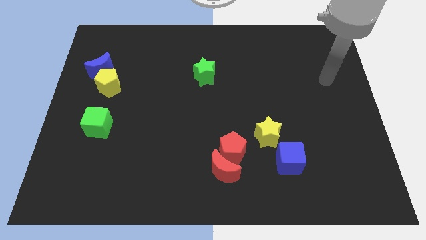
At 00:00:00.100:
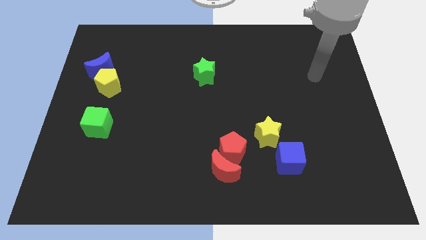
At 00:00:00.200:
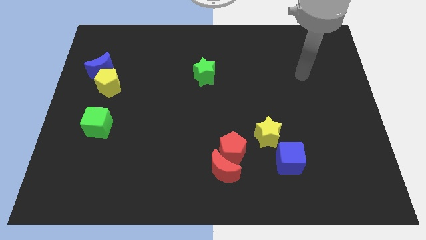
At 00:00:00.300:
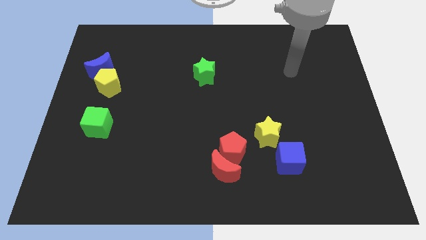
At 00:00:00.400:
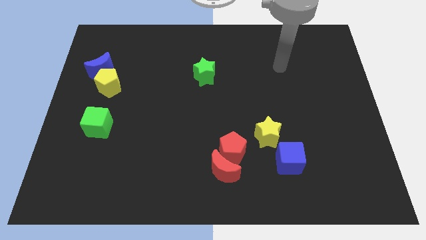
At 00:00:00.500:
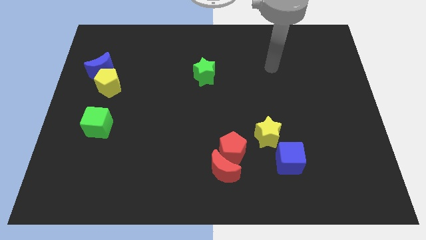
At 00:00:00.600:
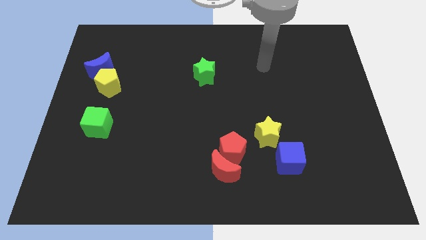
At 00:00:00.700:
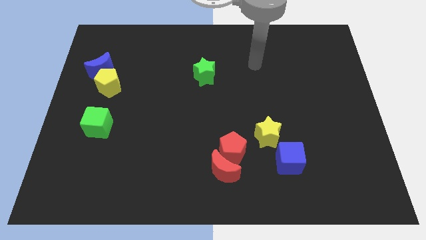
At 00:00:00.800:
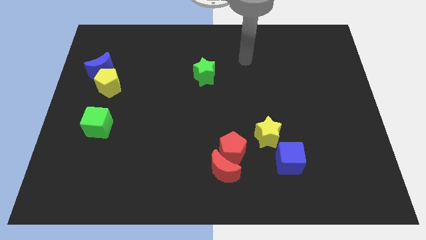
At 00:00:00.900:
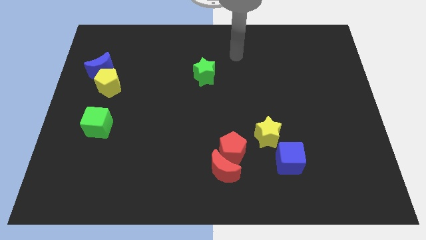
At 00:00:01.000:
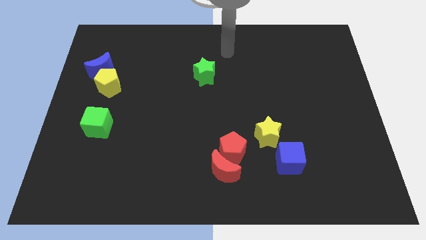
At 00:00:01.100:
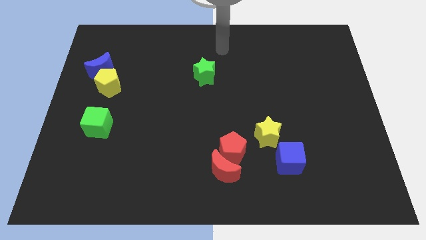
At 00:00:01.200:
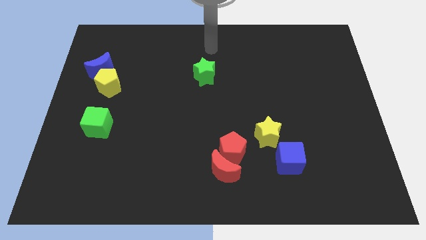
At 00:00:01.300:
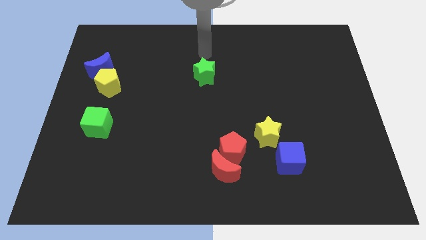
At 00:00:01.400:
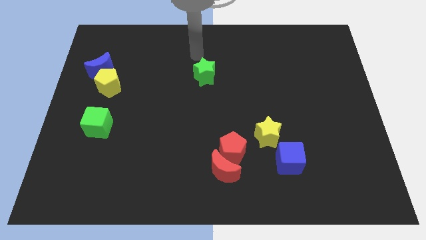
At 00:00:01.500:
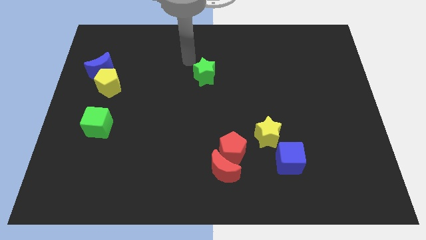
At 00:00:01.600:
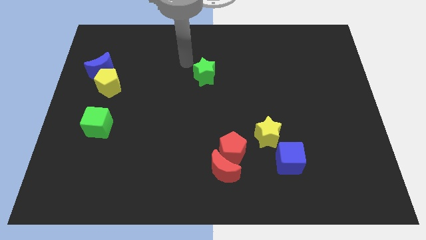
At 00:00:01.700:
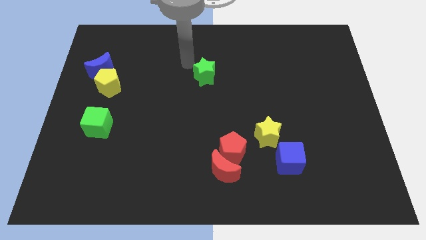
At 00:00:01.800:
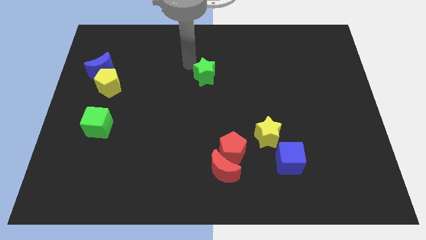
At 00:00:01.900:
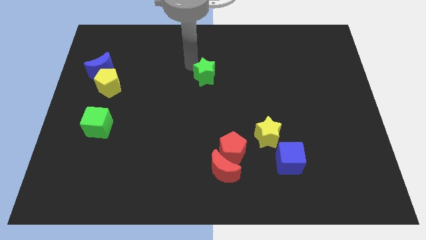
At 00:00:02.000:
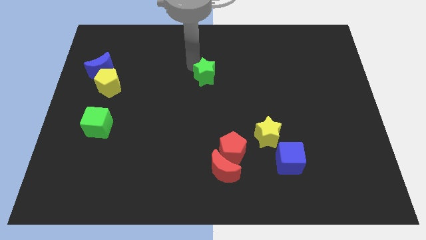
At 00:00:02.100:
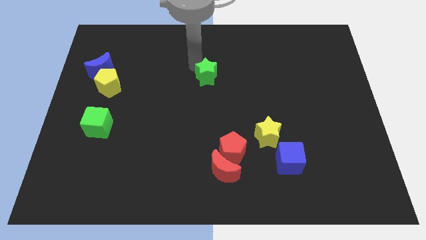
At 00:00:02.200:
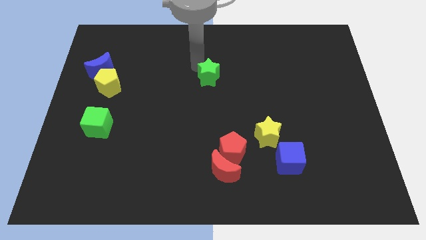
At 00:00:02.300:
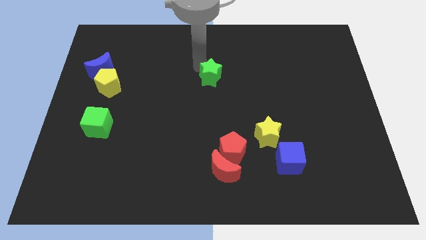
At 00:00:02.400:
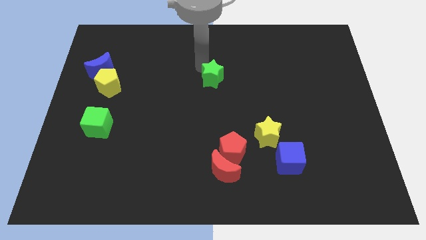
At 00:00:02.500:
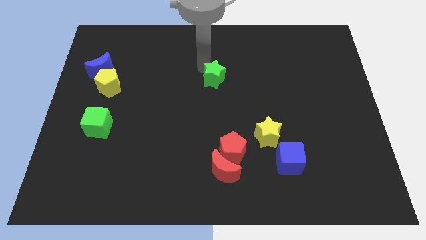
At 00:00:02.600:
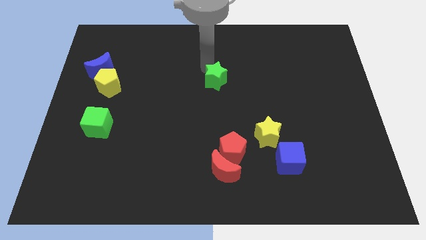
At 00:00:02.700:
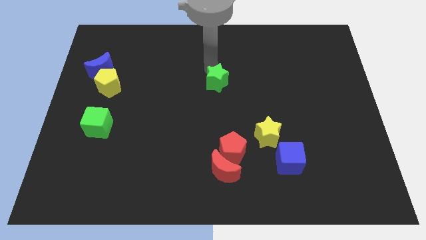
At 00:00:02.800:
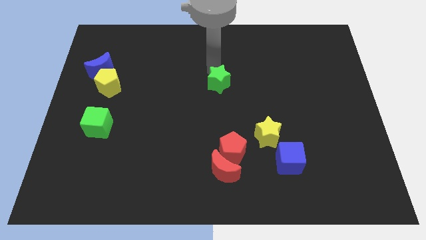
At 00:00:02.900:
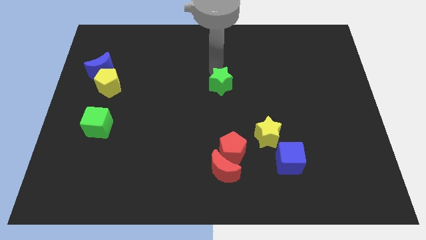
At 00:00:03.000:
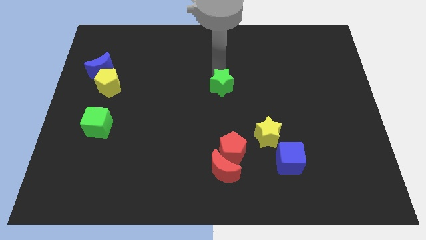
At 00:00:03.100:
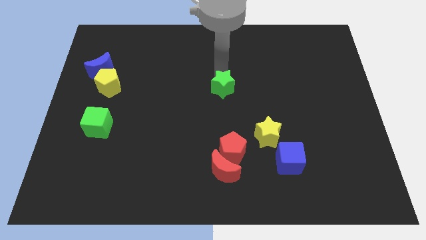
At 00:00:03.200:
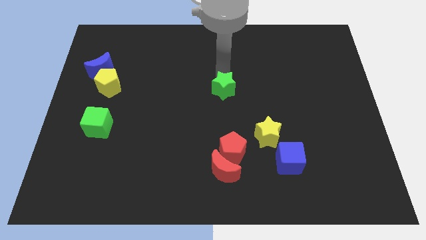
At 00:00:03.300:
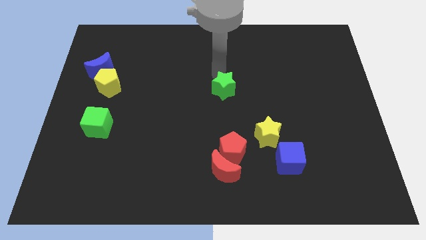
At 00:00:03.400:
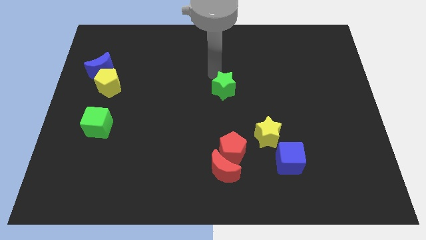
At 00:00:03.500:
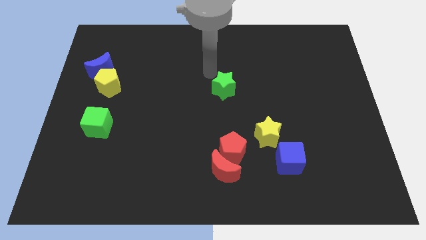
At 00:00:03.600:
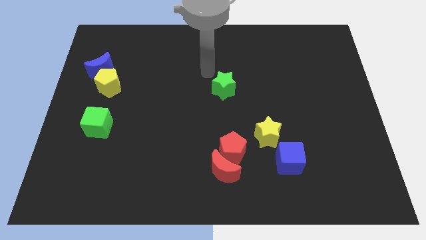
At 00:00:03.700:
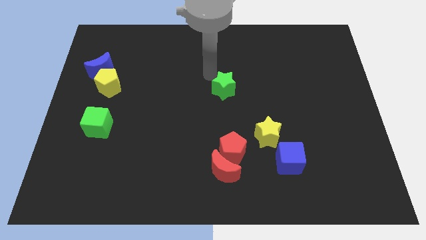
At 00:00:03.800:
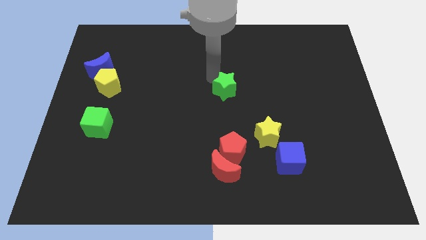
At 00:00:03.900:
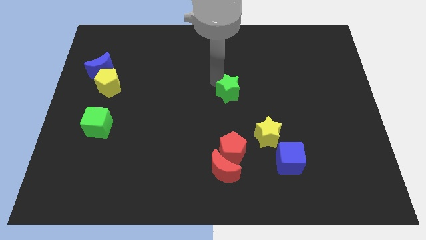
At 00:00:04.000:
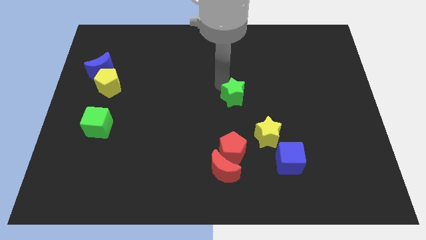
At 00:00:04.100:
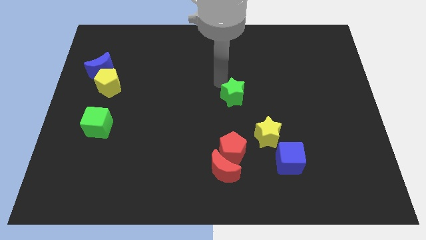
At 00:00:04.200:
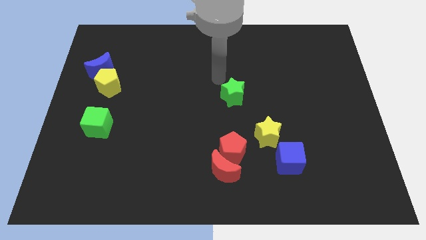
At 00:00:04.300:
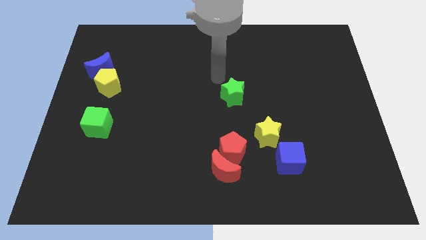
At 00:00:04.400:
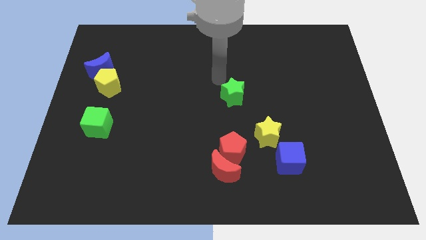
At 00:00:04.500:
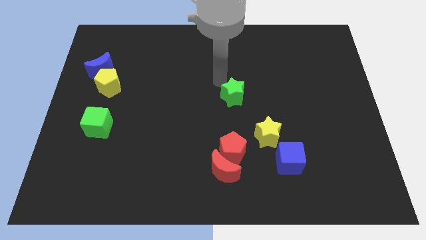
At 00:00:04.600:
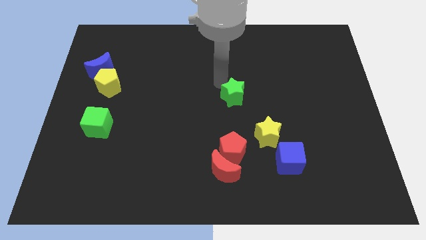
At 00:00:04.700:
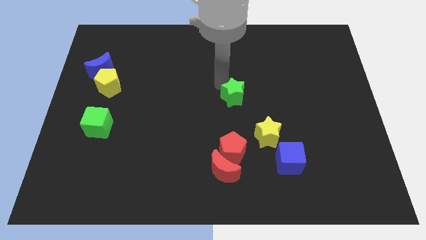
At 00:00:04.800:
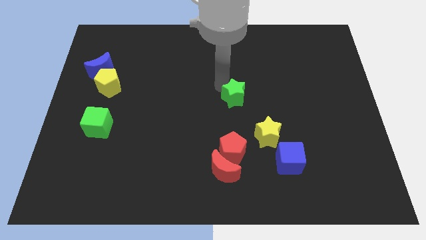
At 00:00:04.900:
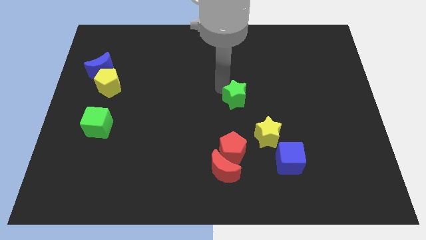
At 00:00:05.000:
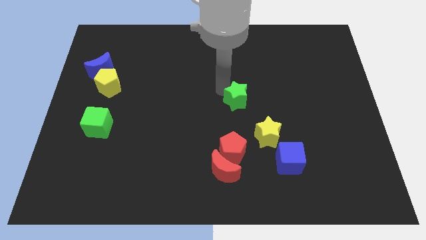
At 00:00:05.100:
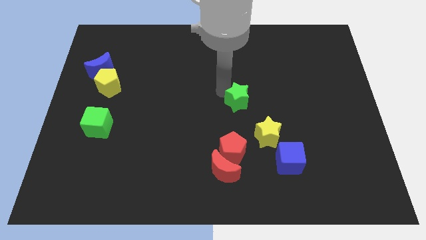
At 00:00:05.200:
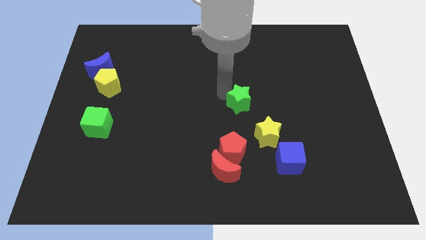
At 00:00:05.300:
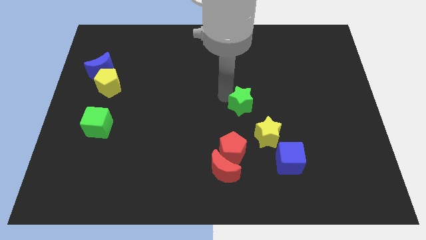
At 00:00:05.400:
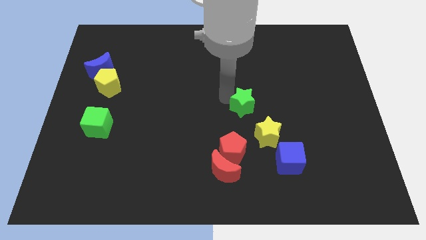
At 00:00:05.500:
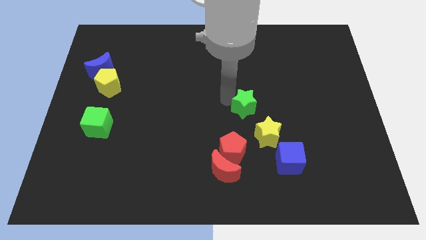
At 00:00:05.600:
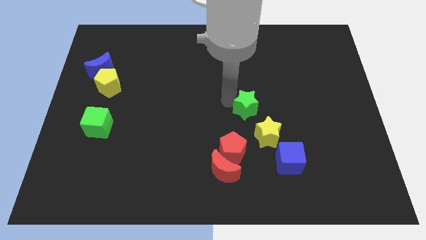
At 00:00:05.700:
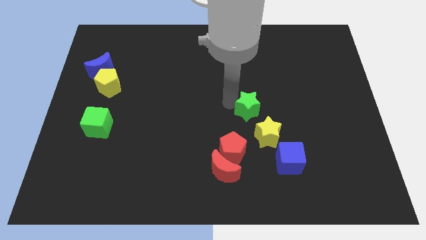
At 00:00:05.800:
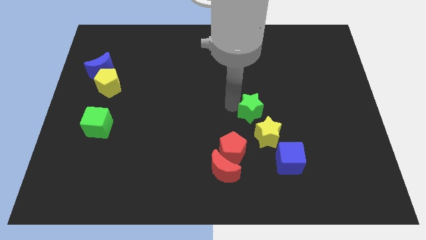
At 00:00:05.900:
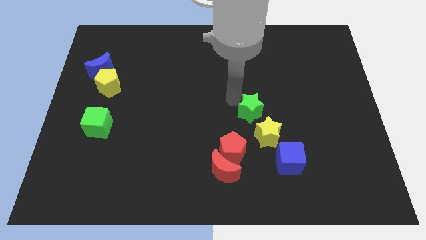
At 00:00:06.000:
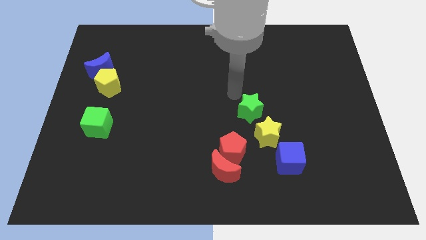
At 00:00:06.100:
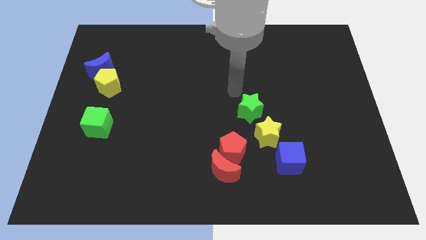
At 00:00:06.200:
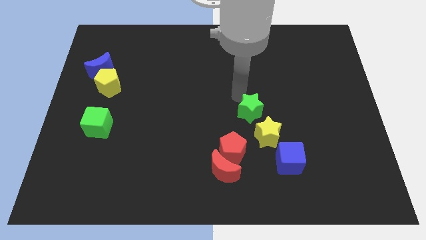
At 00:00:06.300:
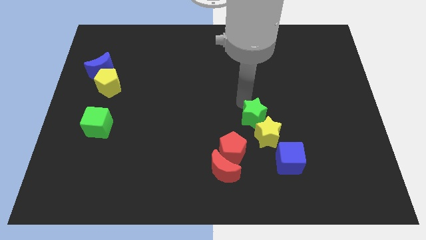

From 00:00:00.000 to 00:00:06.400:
move the green star towards the yellow star

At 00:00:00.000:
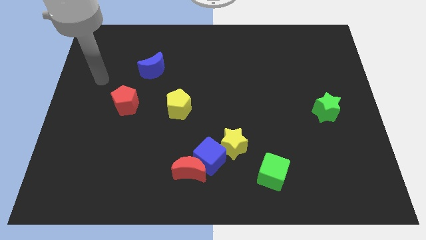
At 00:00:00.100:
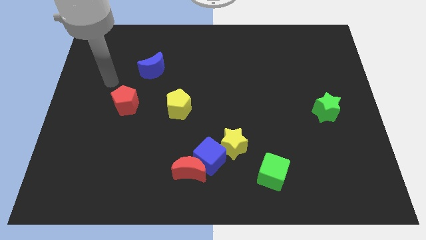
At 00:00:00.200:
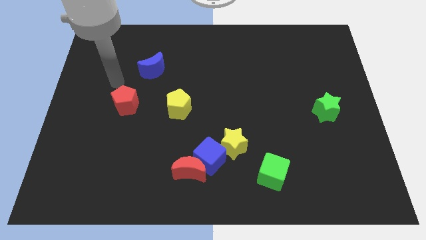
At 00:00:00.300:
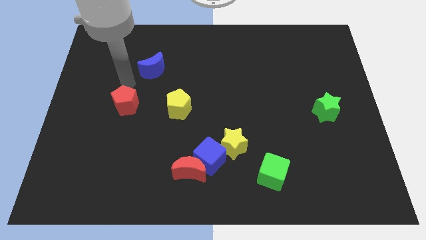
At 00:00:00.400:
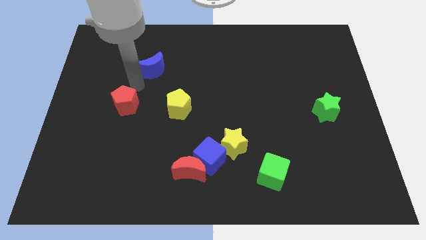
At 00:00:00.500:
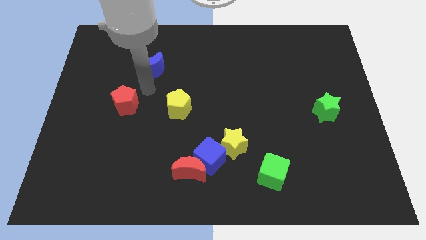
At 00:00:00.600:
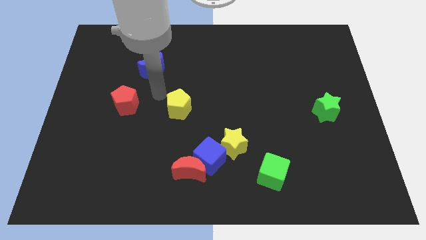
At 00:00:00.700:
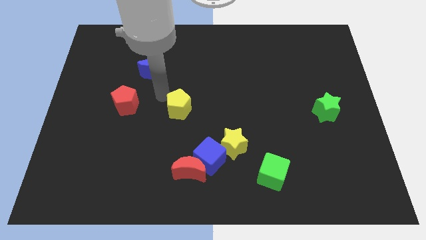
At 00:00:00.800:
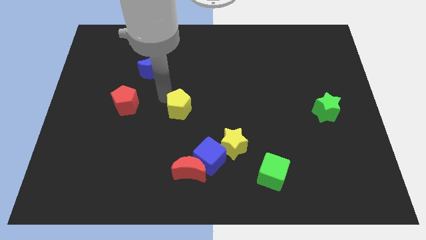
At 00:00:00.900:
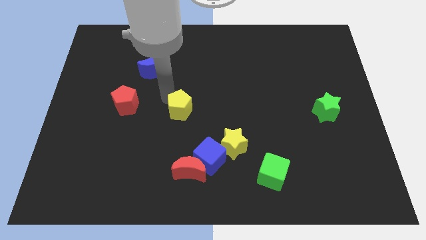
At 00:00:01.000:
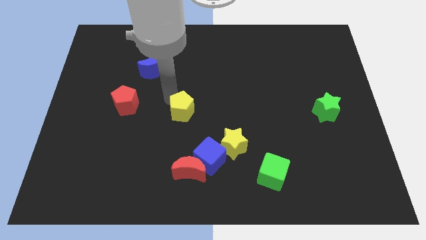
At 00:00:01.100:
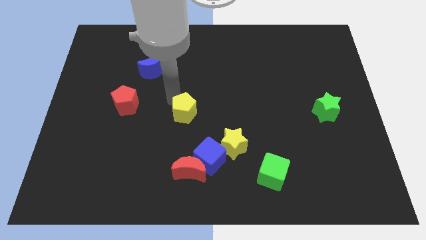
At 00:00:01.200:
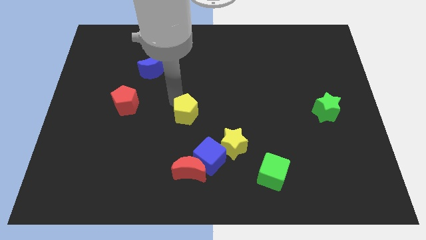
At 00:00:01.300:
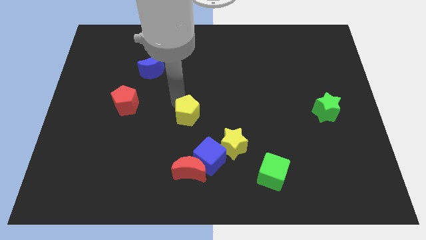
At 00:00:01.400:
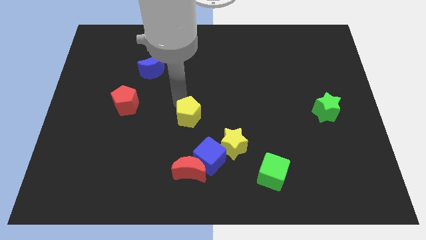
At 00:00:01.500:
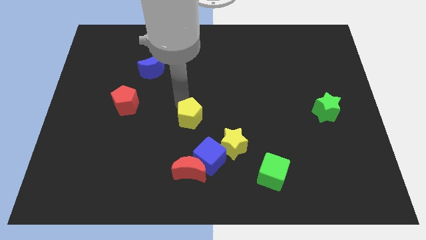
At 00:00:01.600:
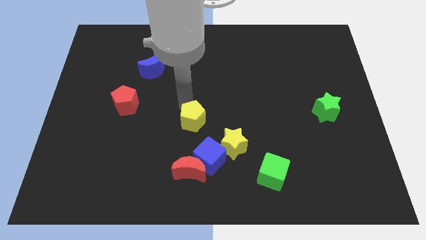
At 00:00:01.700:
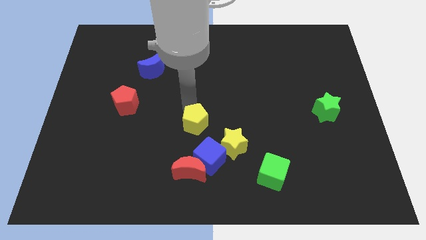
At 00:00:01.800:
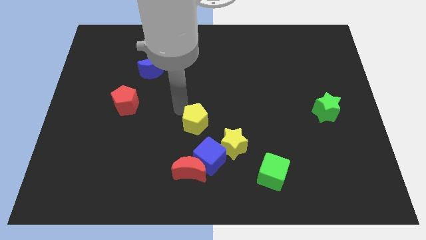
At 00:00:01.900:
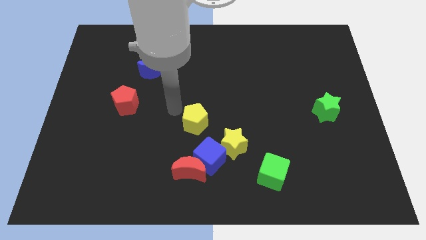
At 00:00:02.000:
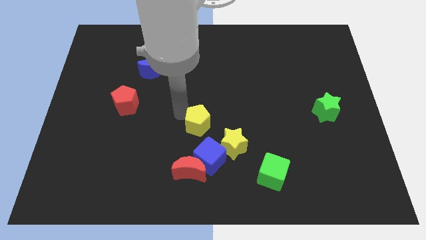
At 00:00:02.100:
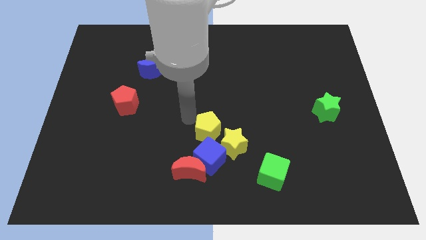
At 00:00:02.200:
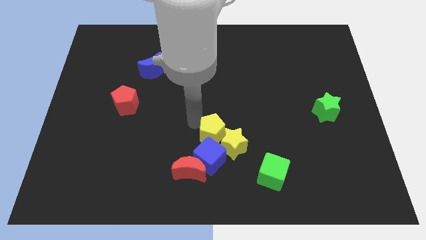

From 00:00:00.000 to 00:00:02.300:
slide the yellow pentagon to the yellow star
